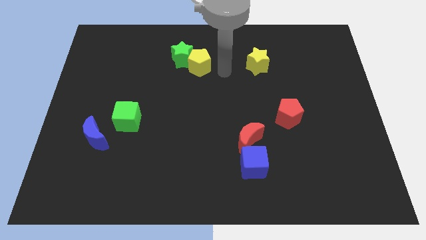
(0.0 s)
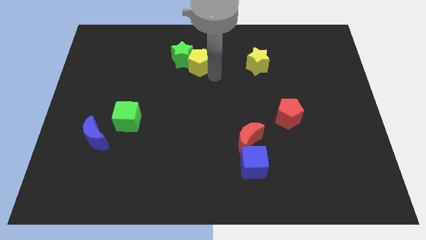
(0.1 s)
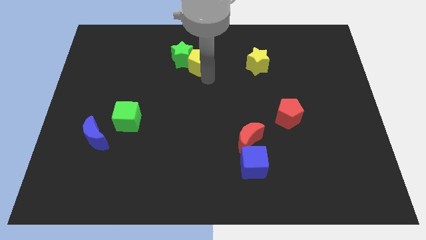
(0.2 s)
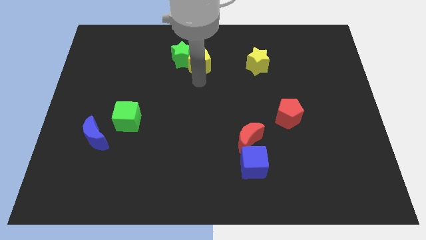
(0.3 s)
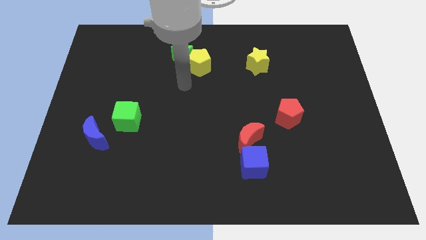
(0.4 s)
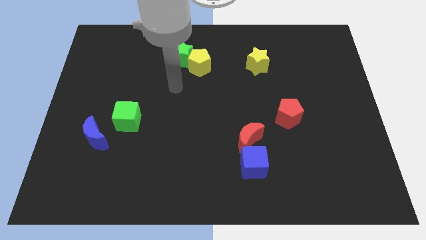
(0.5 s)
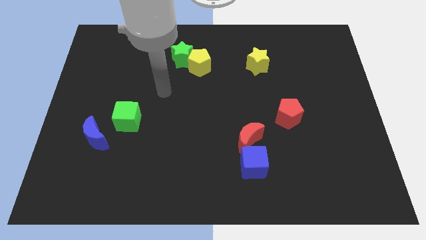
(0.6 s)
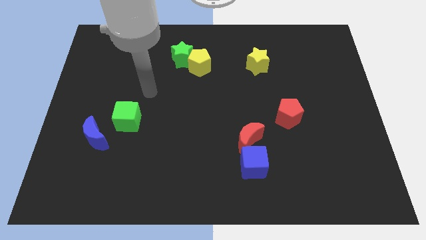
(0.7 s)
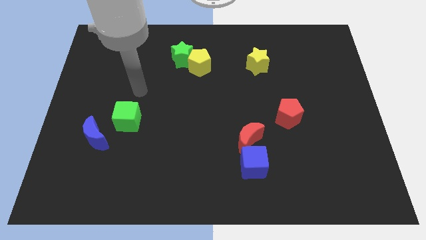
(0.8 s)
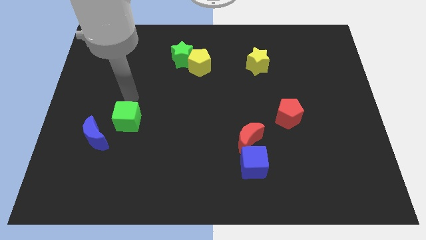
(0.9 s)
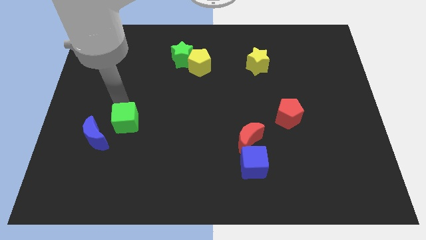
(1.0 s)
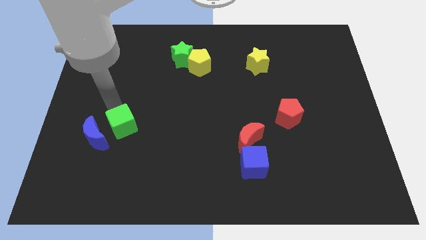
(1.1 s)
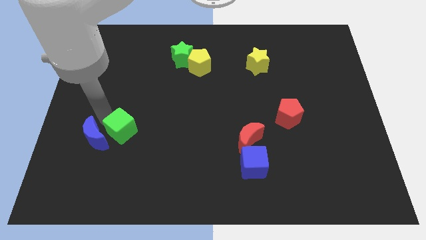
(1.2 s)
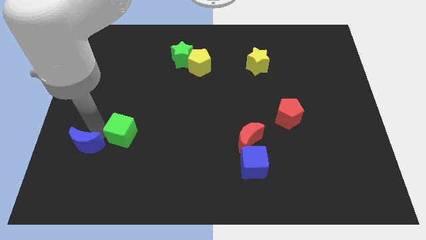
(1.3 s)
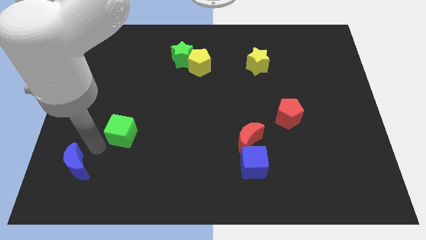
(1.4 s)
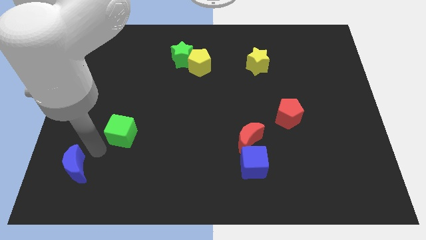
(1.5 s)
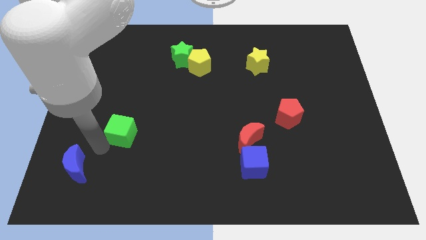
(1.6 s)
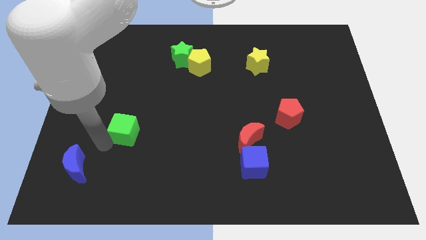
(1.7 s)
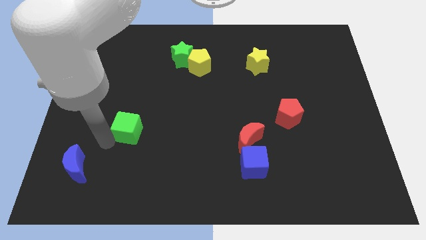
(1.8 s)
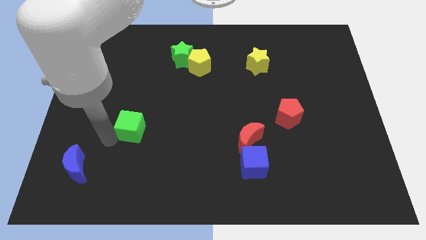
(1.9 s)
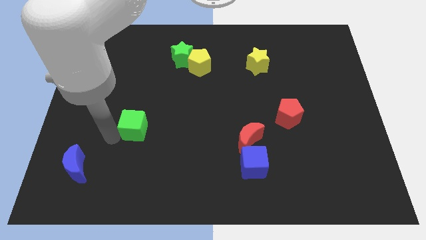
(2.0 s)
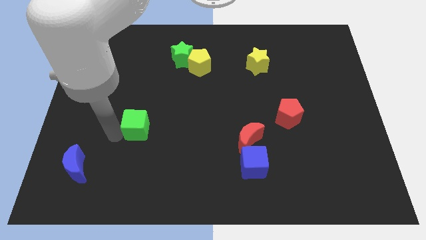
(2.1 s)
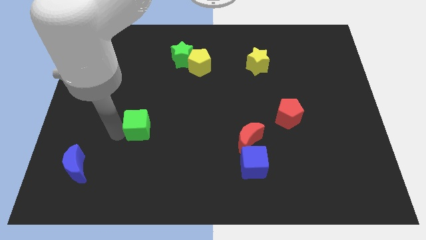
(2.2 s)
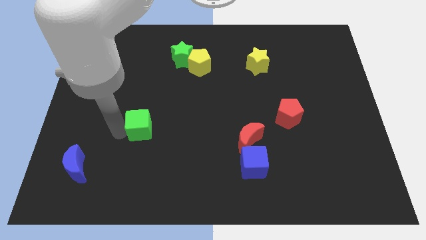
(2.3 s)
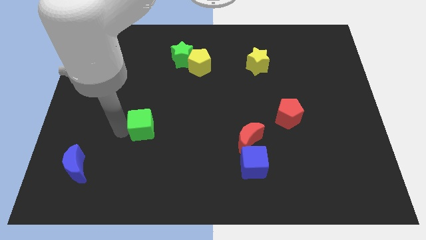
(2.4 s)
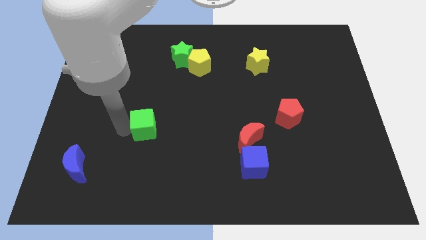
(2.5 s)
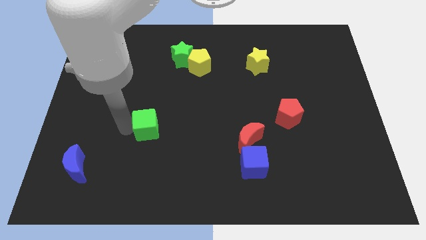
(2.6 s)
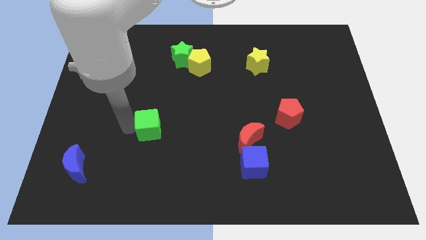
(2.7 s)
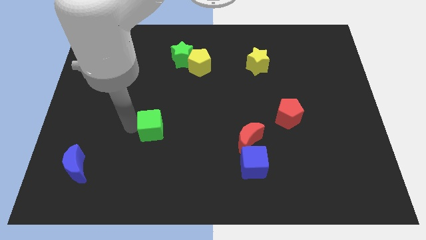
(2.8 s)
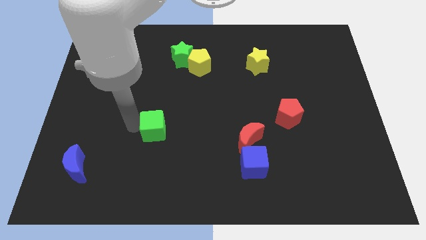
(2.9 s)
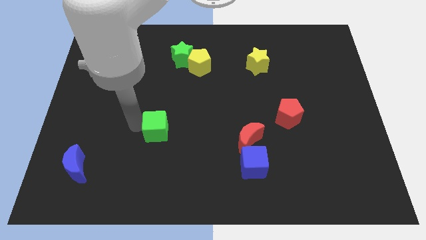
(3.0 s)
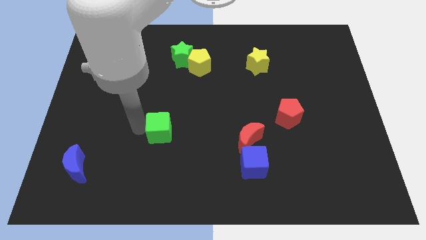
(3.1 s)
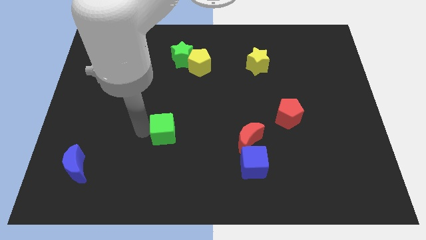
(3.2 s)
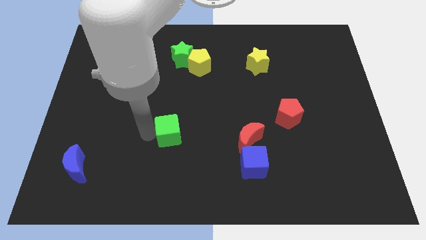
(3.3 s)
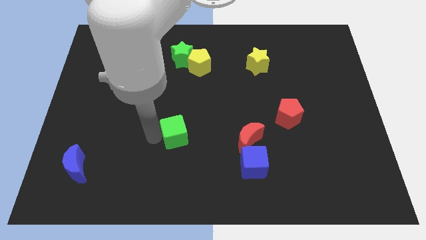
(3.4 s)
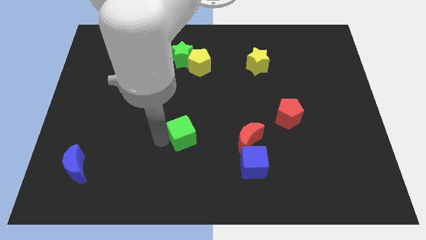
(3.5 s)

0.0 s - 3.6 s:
push the green cube to the middle

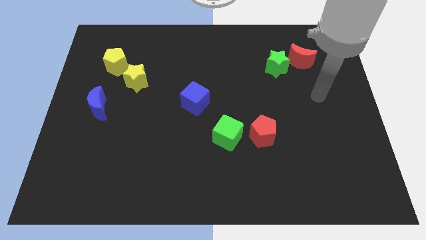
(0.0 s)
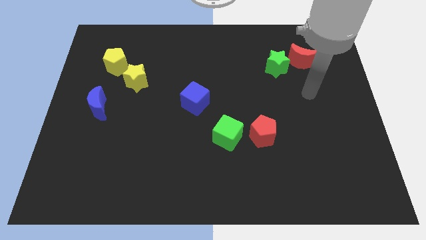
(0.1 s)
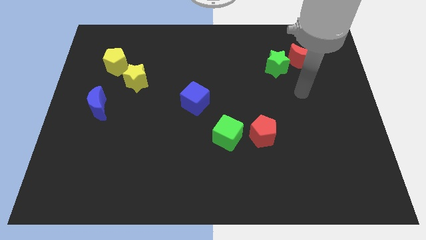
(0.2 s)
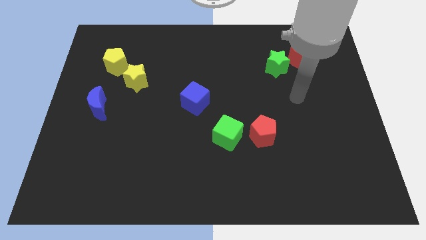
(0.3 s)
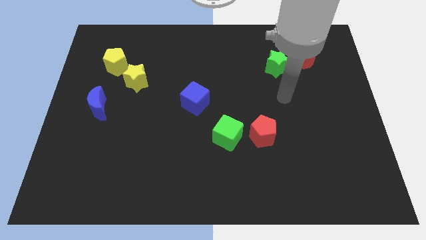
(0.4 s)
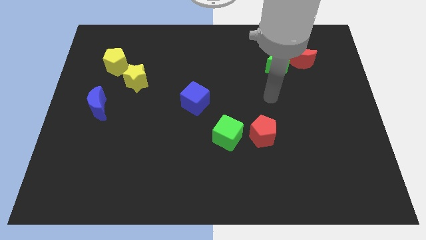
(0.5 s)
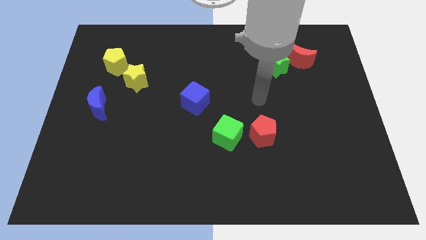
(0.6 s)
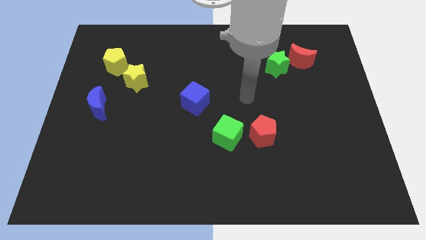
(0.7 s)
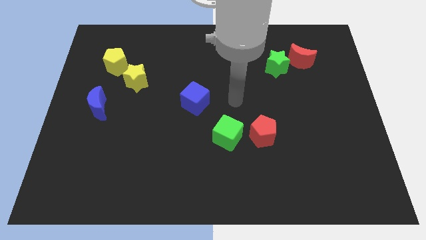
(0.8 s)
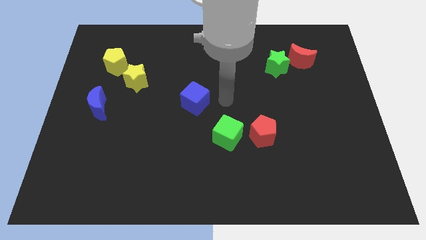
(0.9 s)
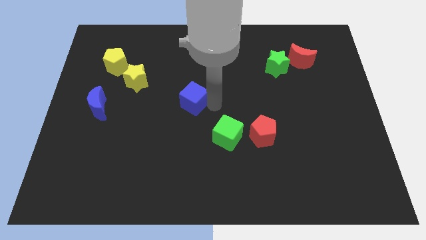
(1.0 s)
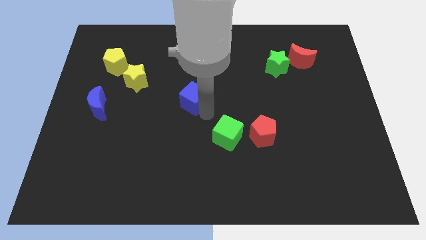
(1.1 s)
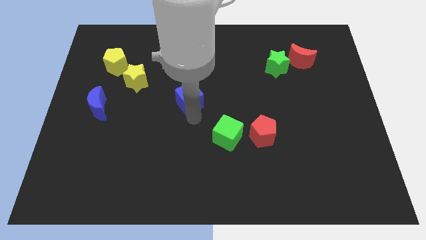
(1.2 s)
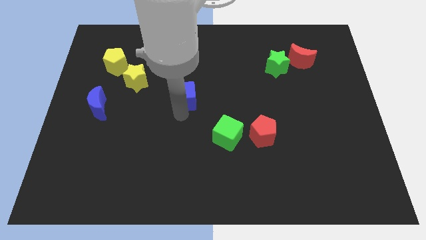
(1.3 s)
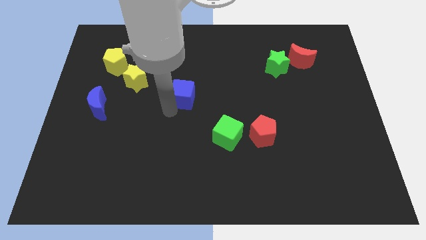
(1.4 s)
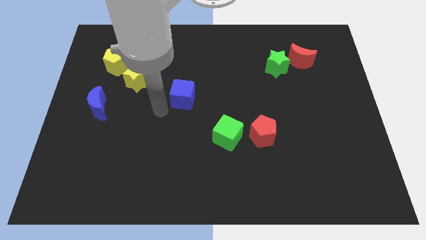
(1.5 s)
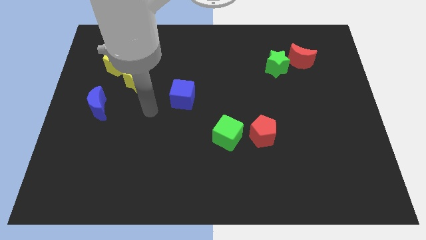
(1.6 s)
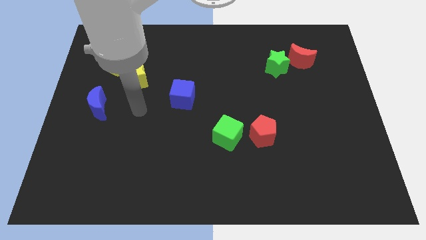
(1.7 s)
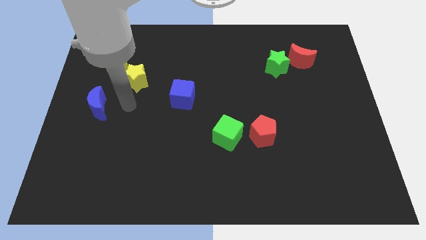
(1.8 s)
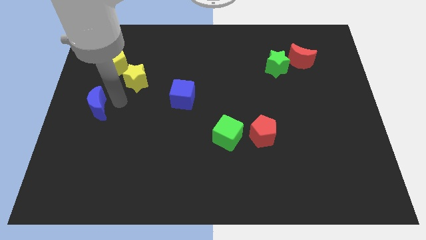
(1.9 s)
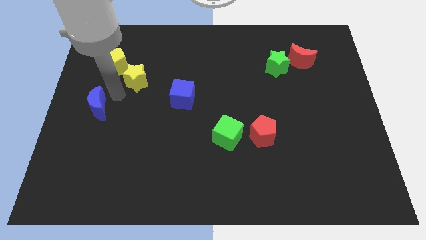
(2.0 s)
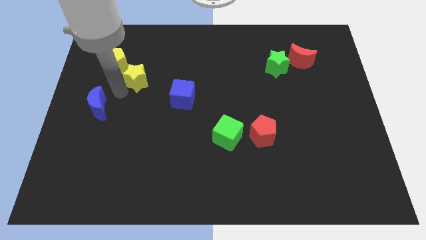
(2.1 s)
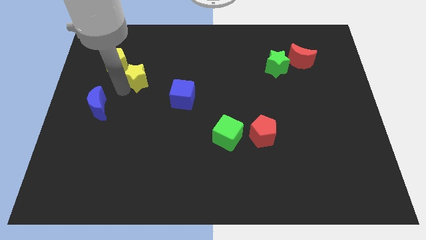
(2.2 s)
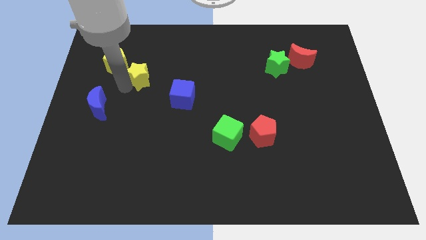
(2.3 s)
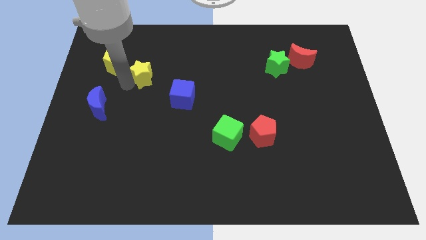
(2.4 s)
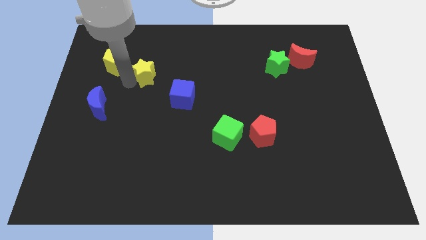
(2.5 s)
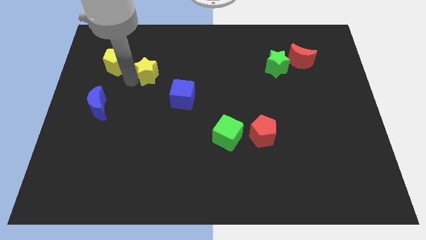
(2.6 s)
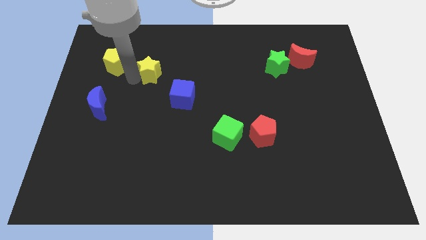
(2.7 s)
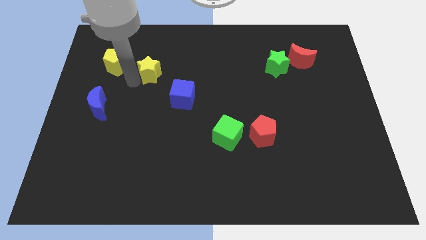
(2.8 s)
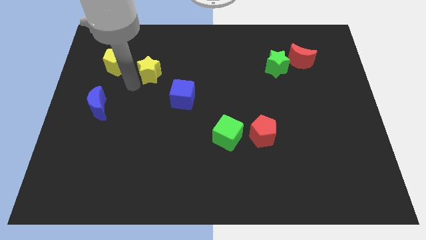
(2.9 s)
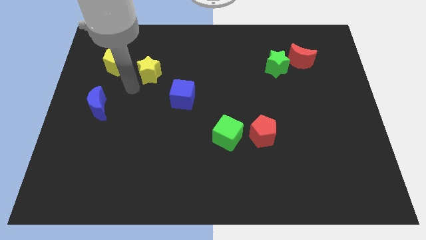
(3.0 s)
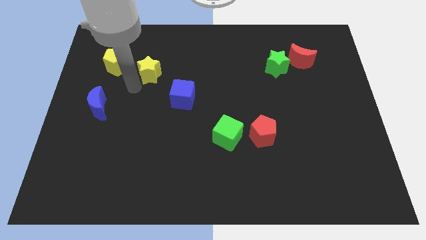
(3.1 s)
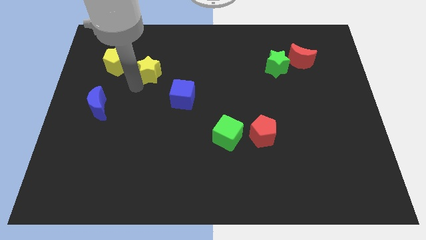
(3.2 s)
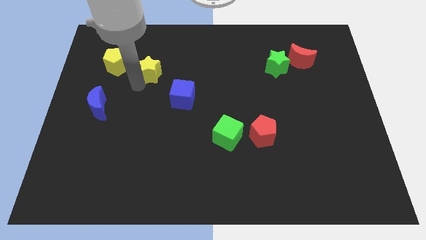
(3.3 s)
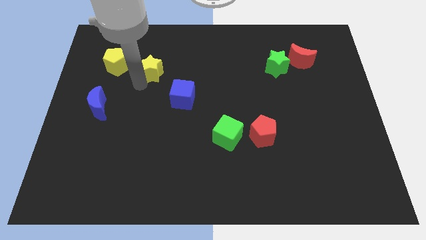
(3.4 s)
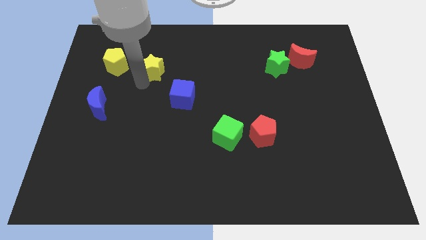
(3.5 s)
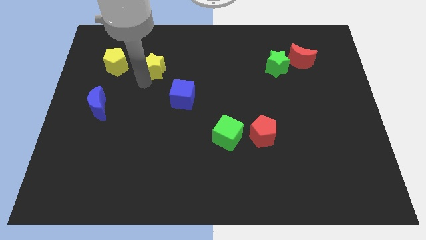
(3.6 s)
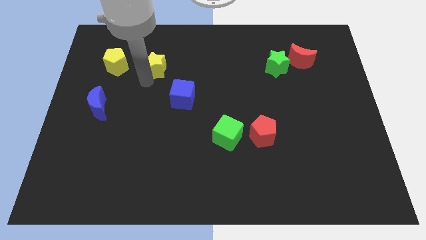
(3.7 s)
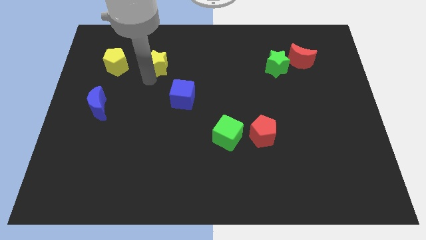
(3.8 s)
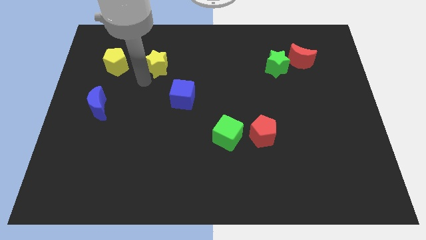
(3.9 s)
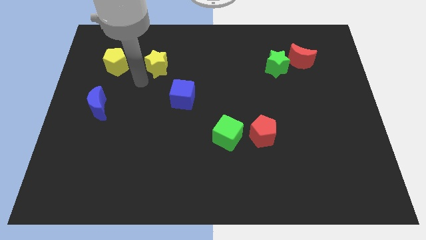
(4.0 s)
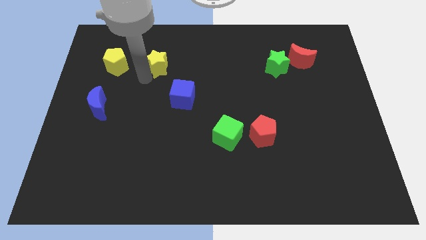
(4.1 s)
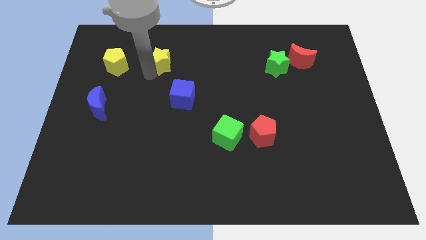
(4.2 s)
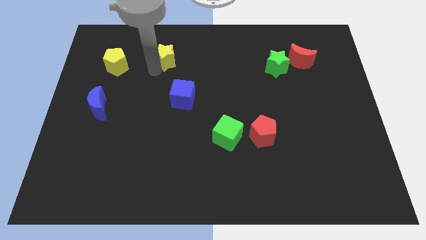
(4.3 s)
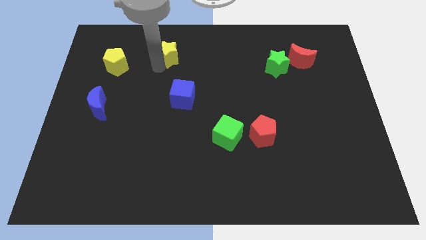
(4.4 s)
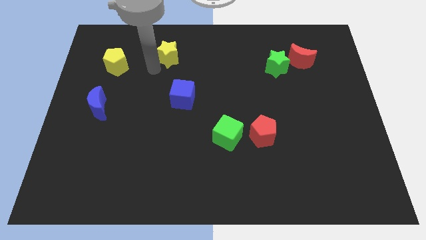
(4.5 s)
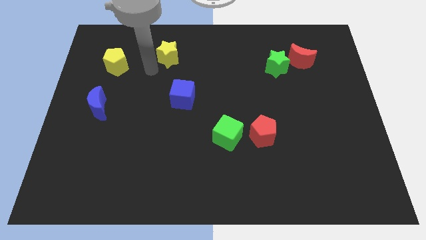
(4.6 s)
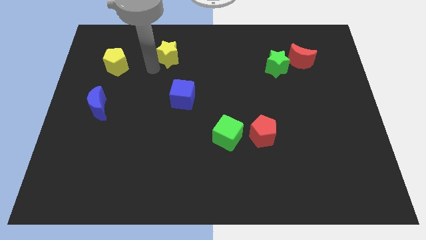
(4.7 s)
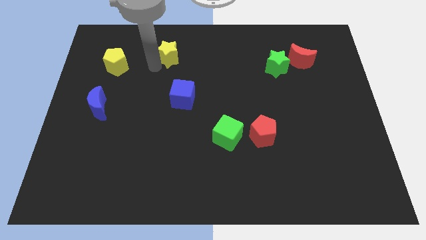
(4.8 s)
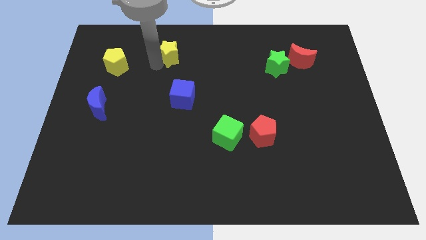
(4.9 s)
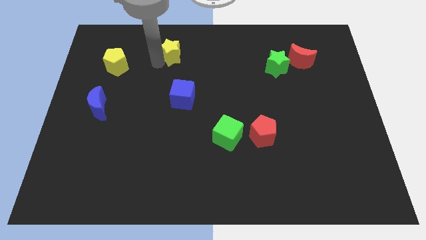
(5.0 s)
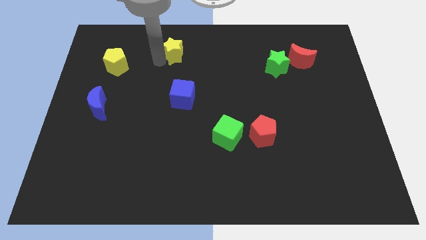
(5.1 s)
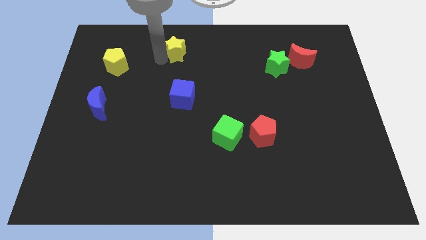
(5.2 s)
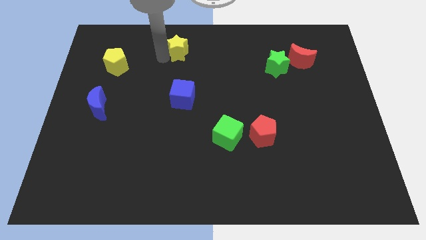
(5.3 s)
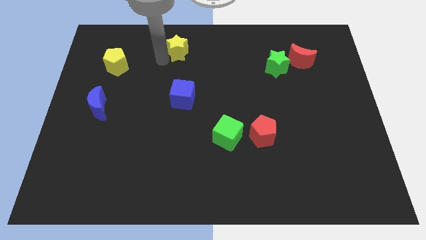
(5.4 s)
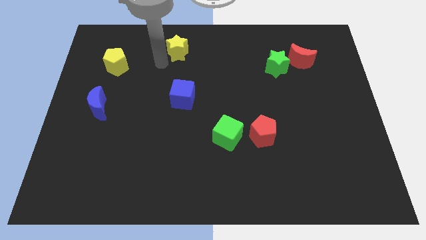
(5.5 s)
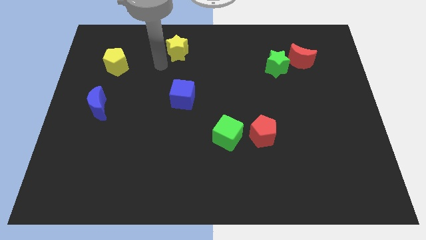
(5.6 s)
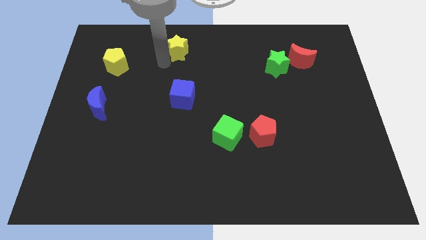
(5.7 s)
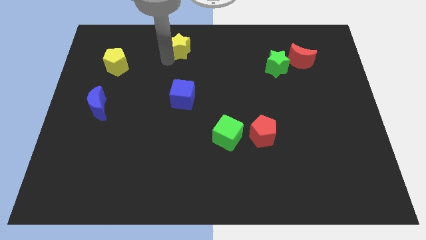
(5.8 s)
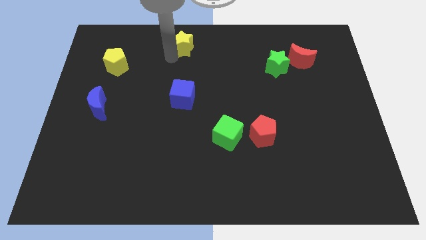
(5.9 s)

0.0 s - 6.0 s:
push the yellow star to the top
